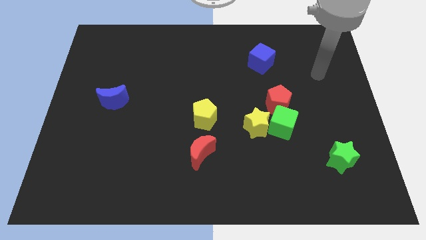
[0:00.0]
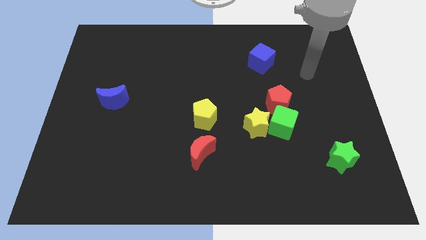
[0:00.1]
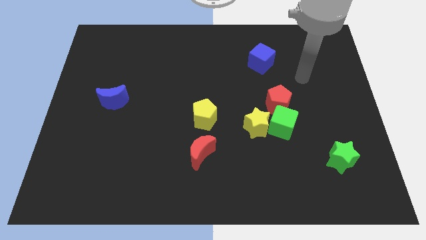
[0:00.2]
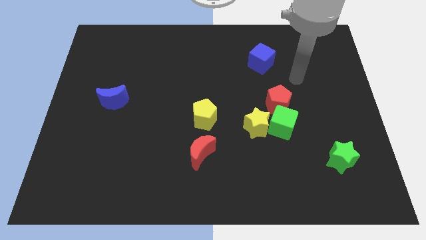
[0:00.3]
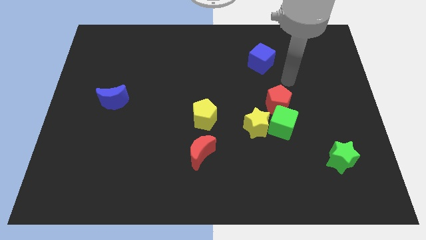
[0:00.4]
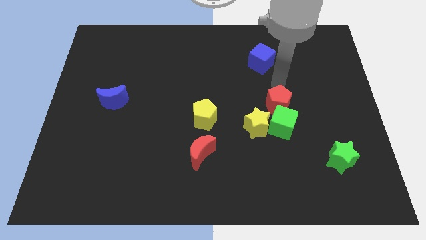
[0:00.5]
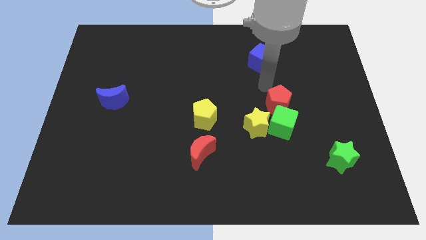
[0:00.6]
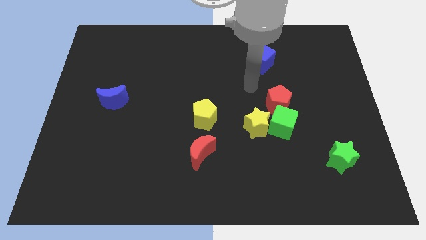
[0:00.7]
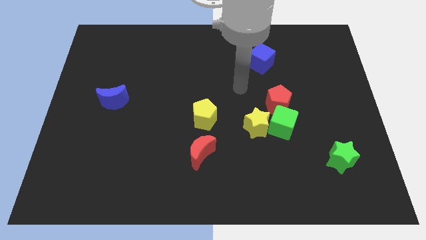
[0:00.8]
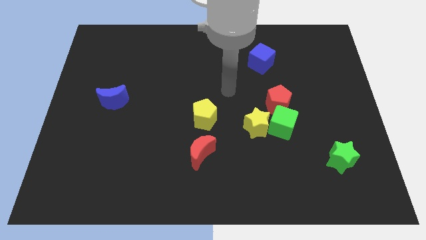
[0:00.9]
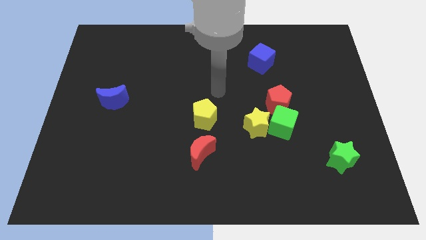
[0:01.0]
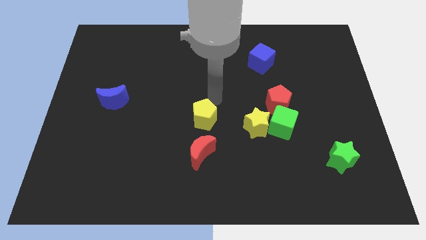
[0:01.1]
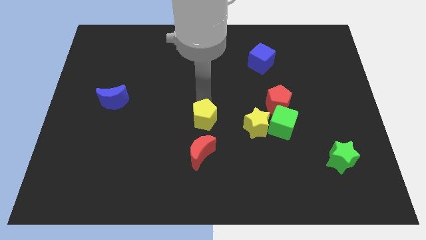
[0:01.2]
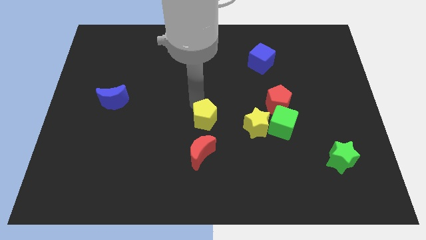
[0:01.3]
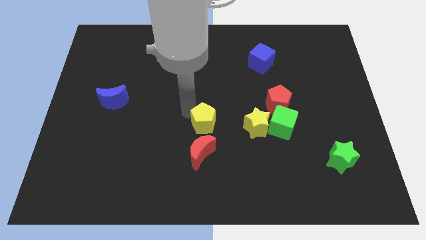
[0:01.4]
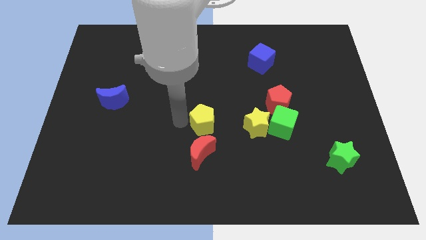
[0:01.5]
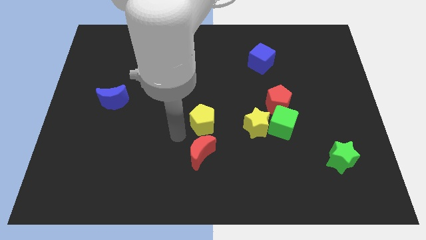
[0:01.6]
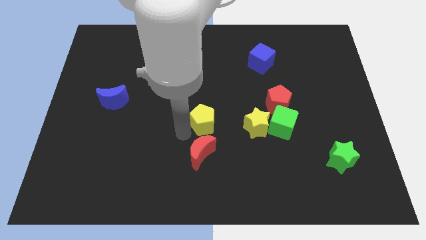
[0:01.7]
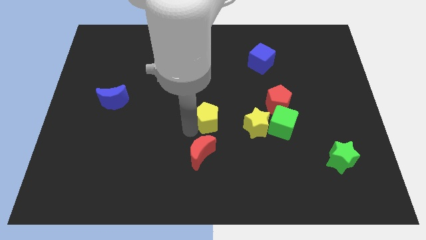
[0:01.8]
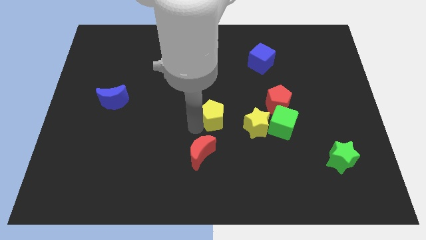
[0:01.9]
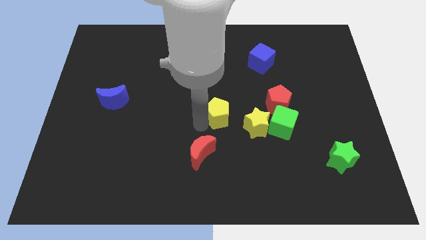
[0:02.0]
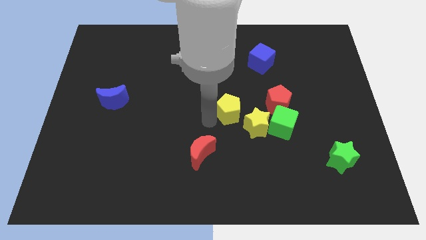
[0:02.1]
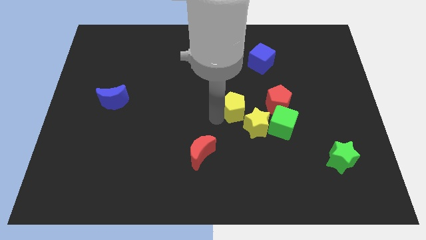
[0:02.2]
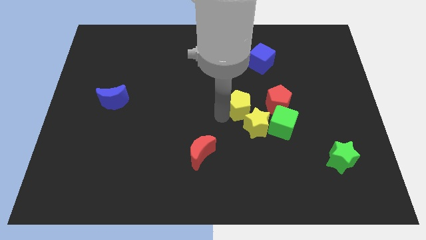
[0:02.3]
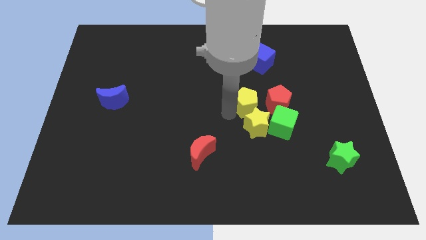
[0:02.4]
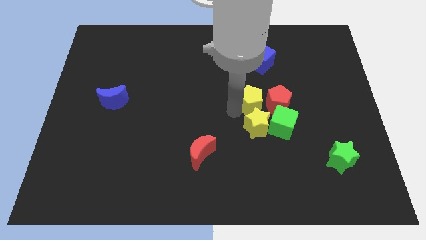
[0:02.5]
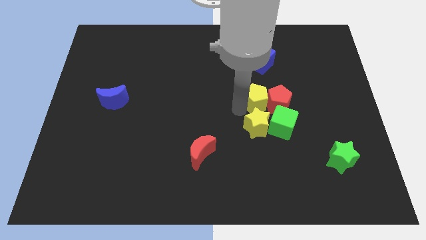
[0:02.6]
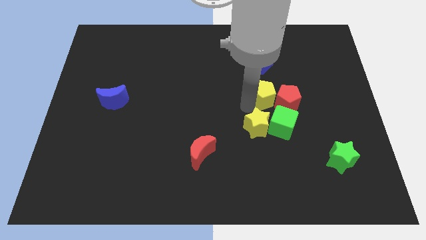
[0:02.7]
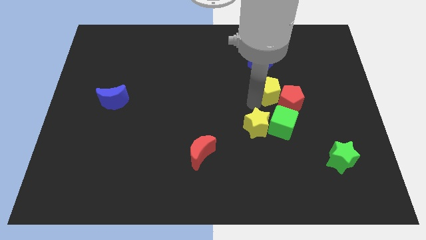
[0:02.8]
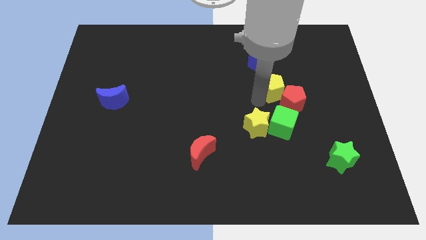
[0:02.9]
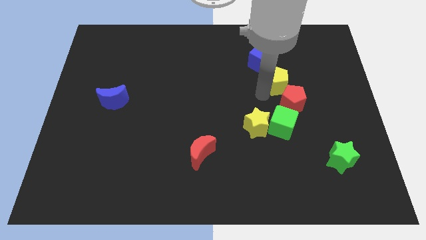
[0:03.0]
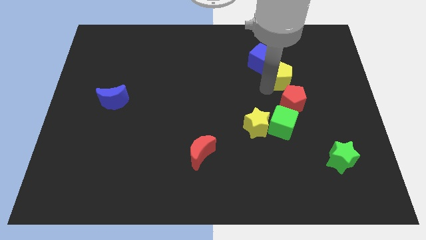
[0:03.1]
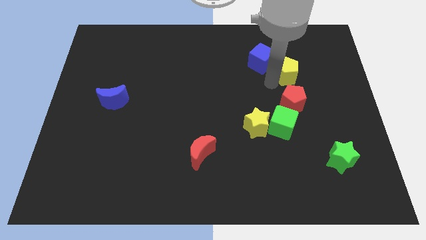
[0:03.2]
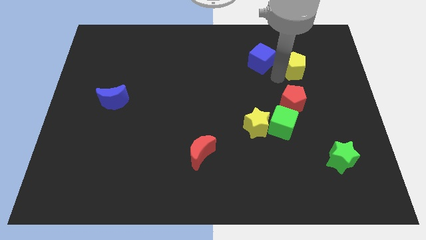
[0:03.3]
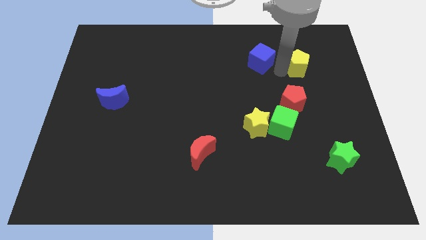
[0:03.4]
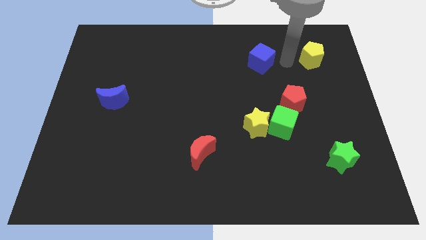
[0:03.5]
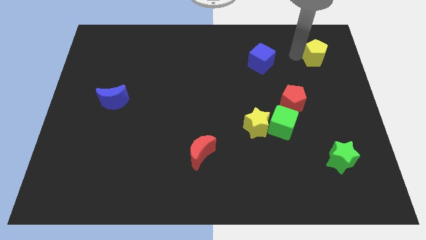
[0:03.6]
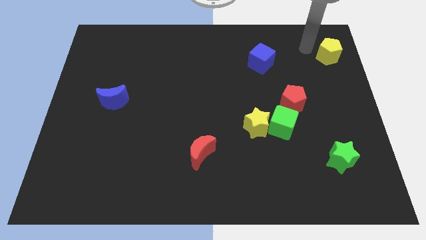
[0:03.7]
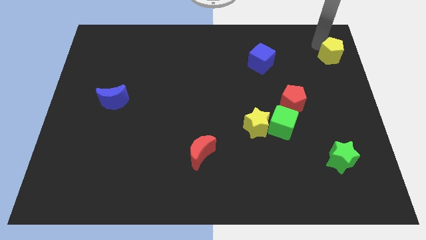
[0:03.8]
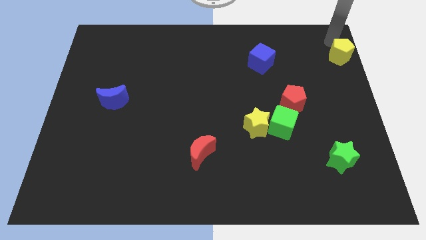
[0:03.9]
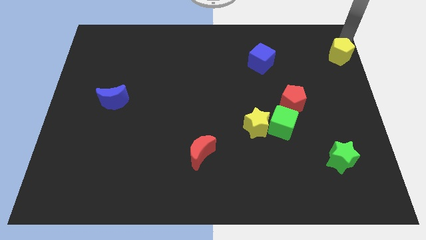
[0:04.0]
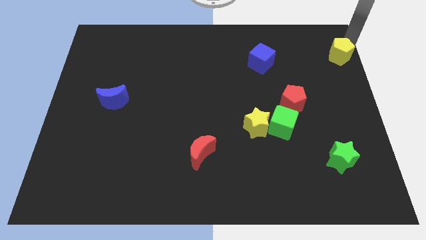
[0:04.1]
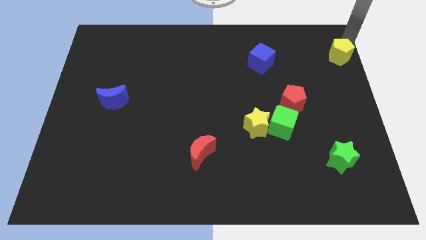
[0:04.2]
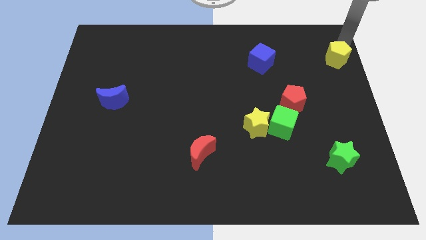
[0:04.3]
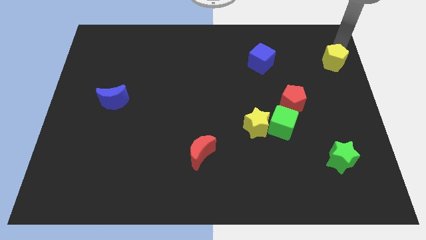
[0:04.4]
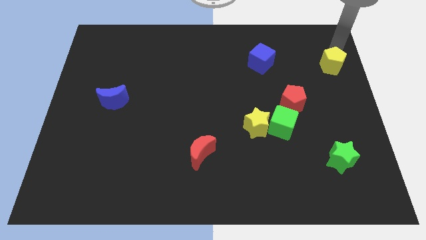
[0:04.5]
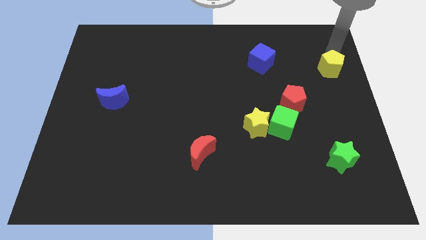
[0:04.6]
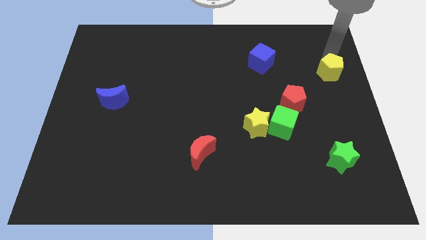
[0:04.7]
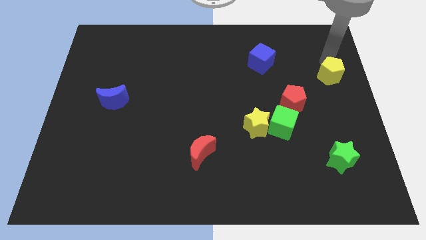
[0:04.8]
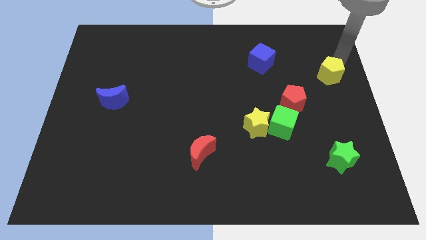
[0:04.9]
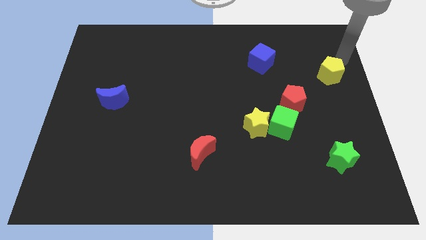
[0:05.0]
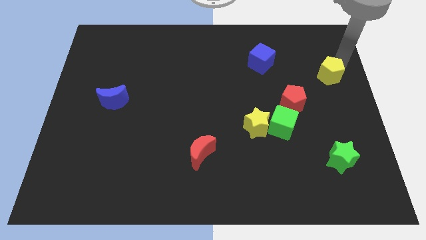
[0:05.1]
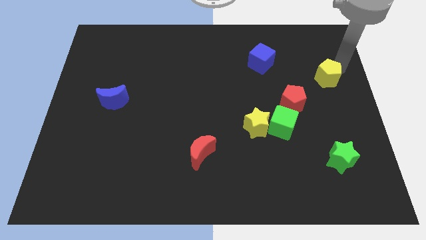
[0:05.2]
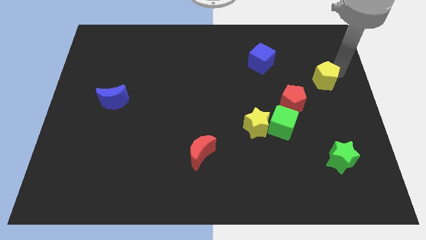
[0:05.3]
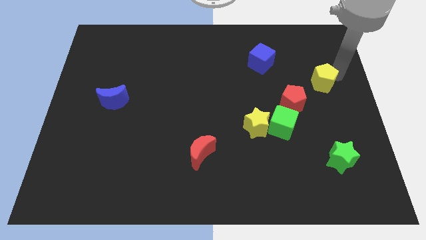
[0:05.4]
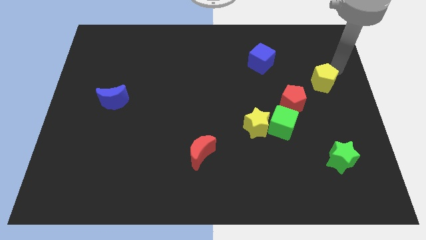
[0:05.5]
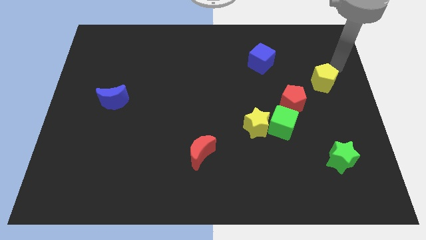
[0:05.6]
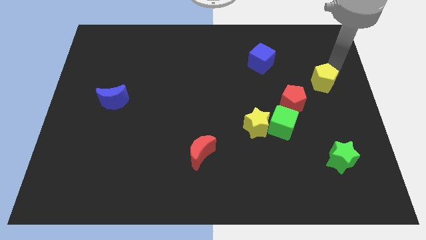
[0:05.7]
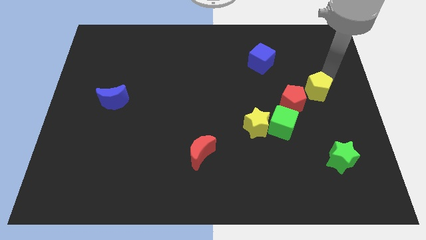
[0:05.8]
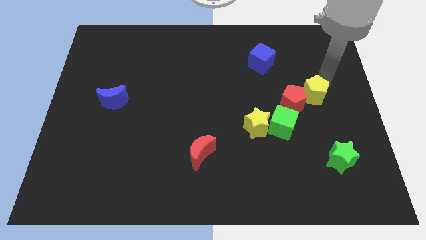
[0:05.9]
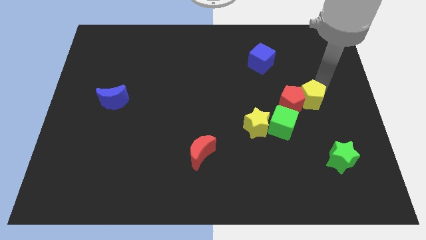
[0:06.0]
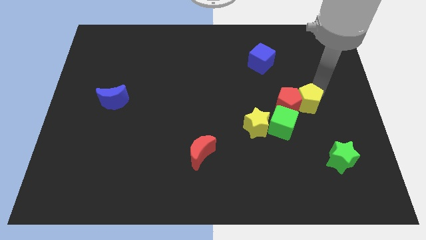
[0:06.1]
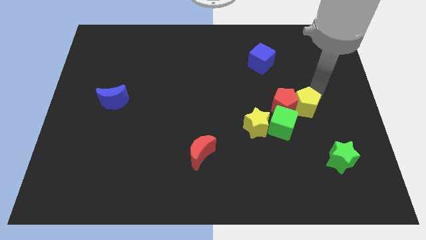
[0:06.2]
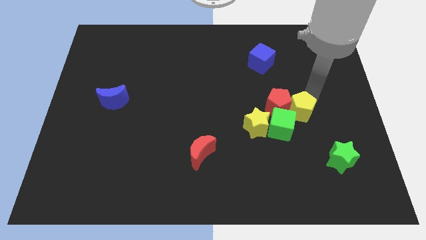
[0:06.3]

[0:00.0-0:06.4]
move the yellow pentagon just right of the yellow star
